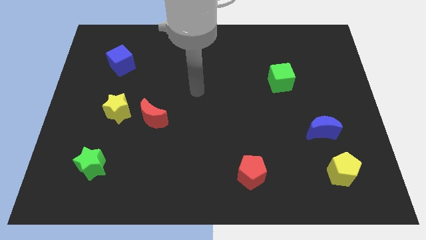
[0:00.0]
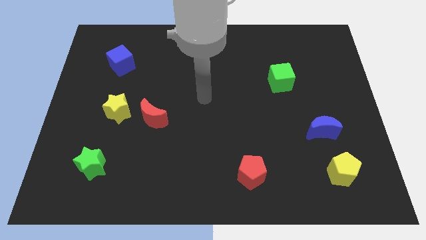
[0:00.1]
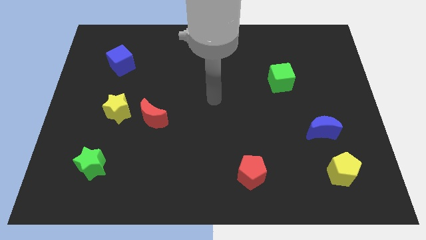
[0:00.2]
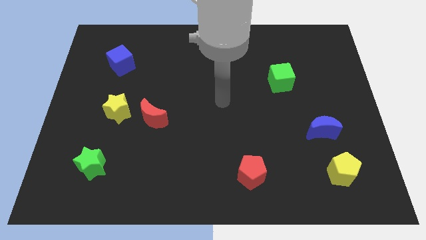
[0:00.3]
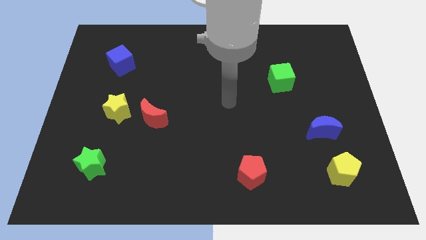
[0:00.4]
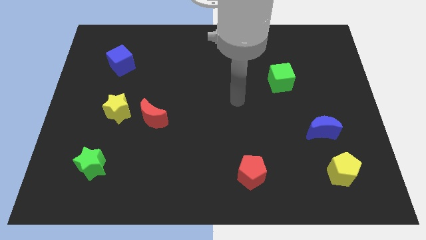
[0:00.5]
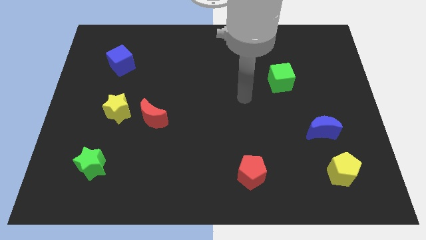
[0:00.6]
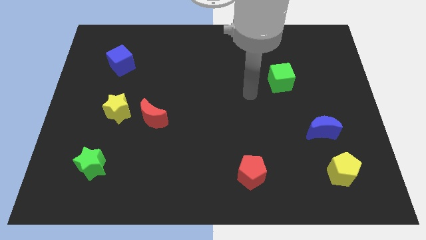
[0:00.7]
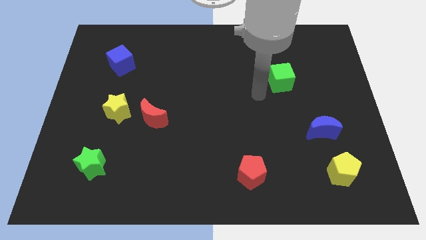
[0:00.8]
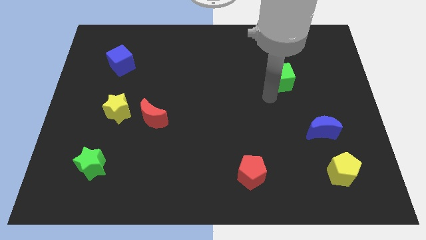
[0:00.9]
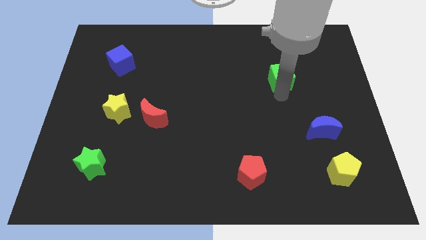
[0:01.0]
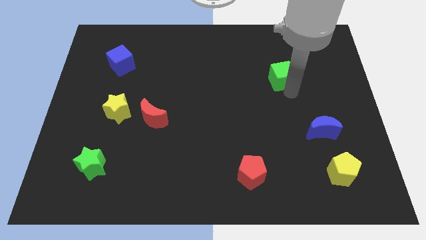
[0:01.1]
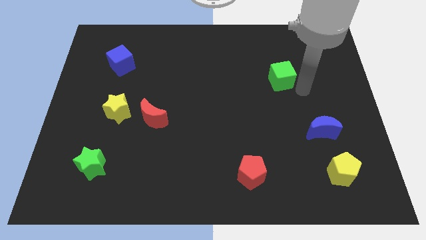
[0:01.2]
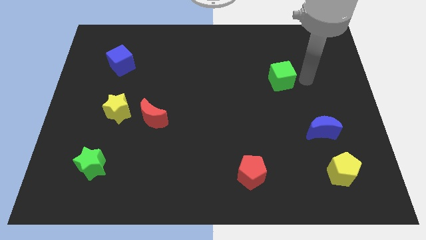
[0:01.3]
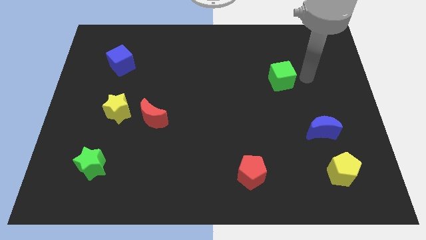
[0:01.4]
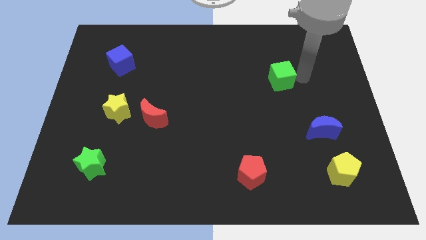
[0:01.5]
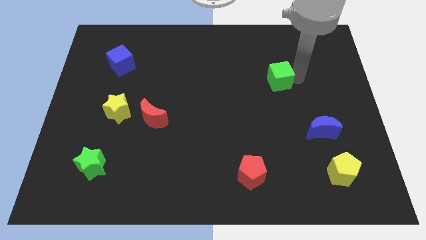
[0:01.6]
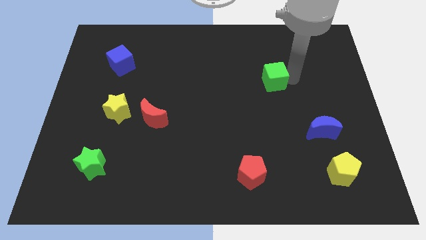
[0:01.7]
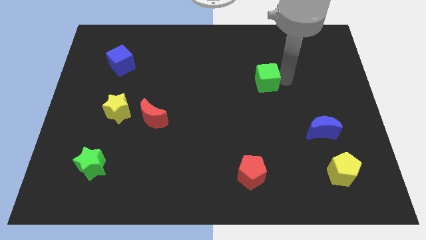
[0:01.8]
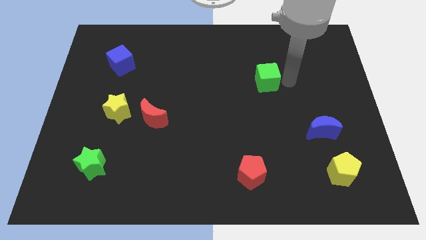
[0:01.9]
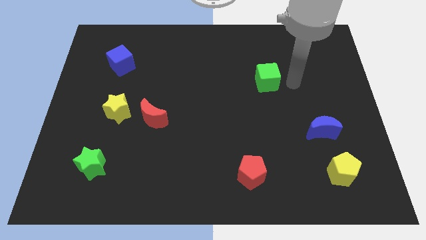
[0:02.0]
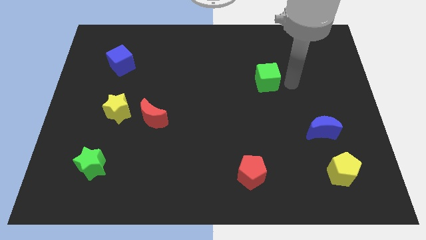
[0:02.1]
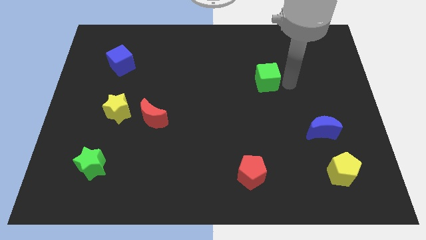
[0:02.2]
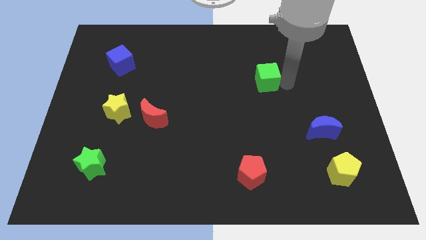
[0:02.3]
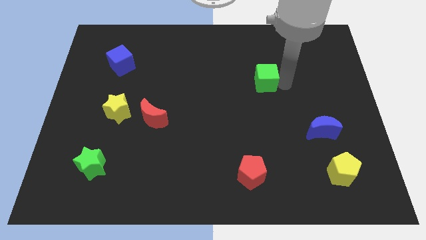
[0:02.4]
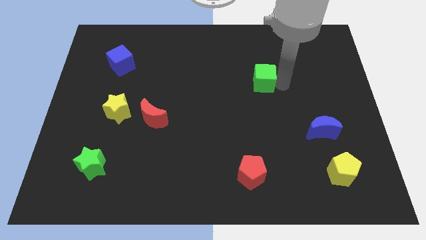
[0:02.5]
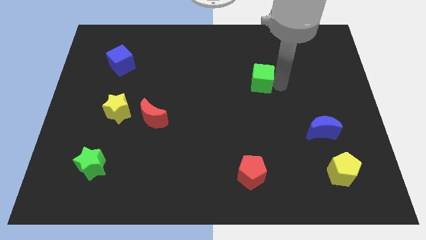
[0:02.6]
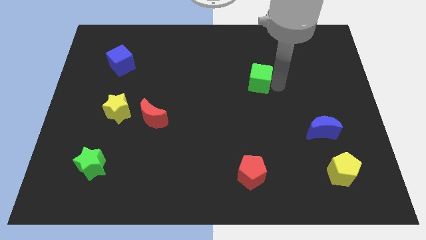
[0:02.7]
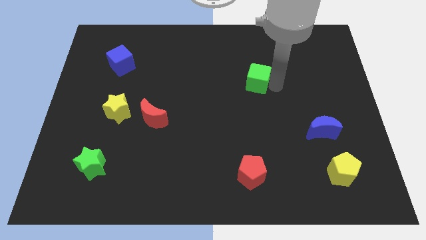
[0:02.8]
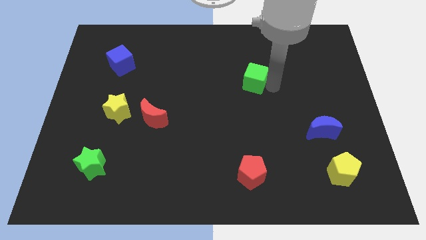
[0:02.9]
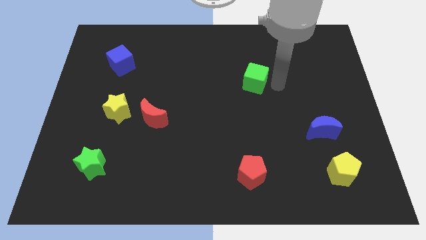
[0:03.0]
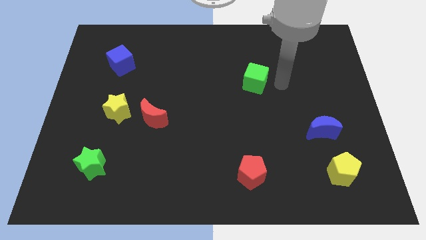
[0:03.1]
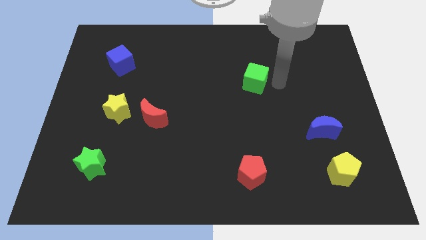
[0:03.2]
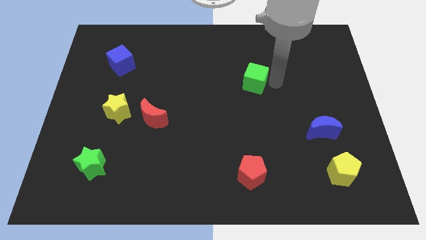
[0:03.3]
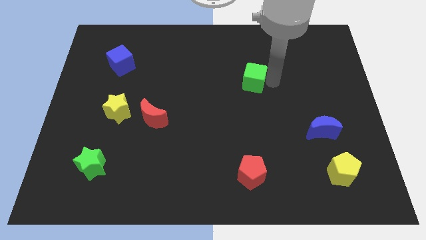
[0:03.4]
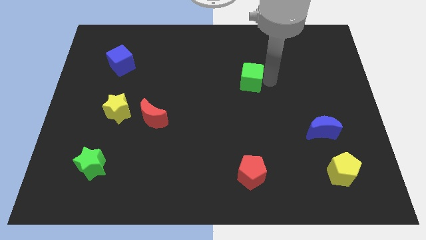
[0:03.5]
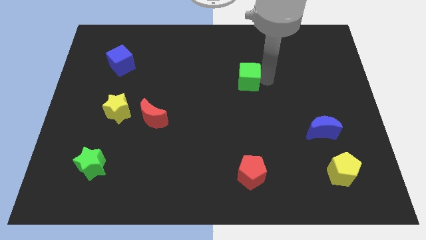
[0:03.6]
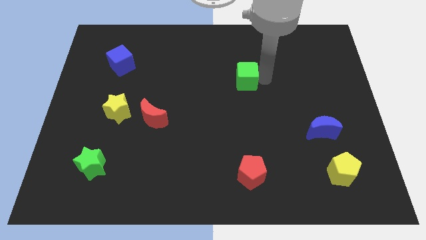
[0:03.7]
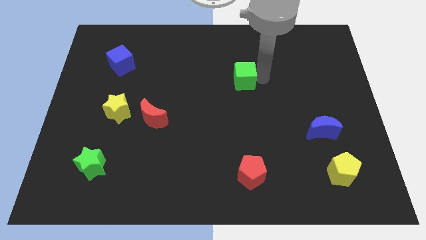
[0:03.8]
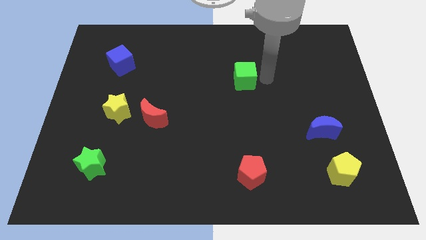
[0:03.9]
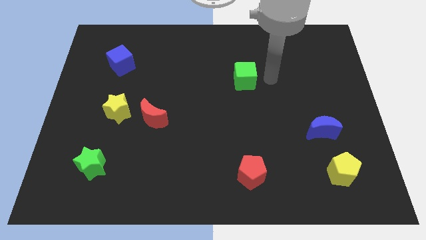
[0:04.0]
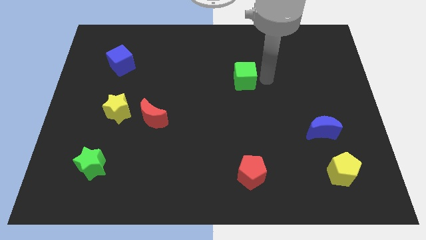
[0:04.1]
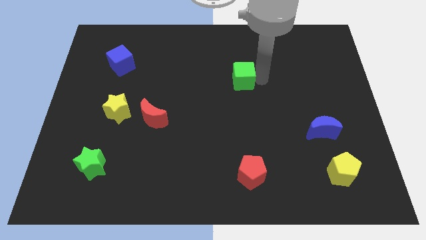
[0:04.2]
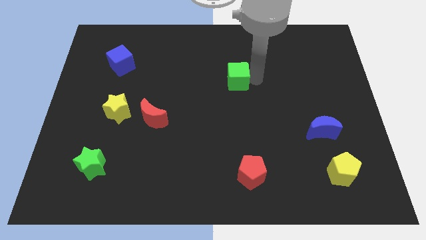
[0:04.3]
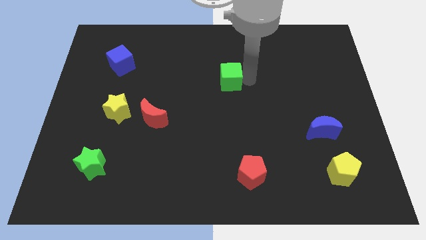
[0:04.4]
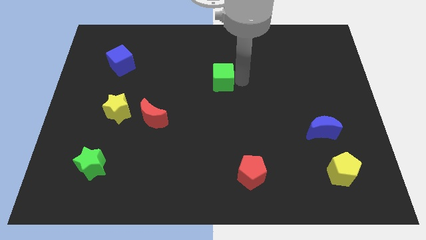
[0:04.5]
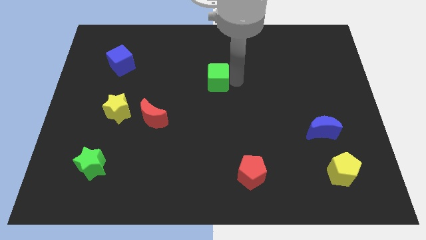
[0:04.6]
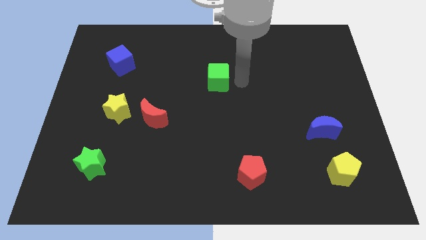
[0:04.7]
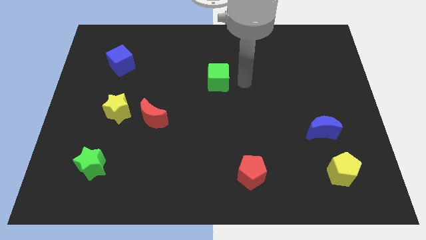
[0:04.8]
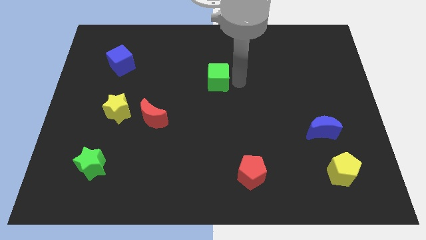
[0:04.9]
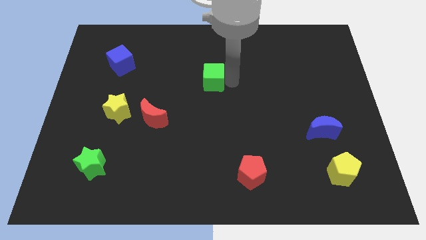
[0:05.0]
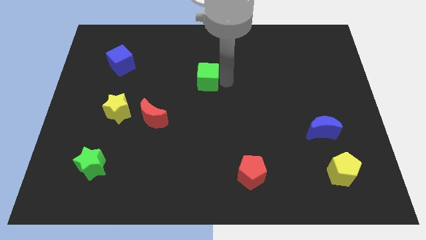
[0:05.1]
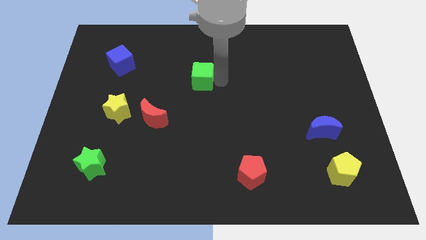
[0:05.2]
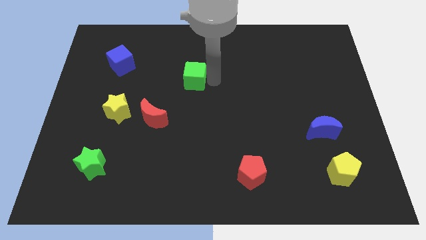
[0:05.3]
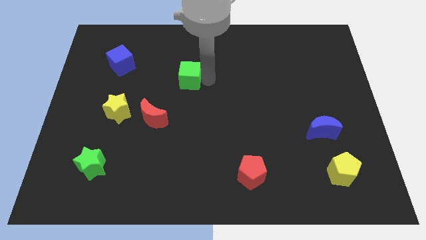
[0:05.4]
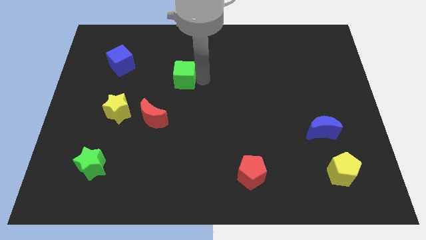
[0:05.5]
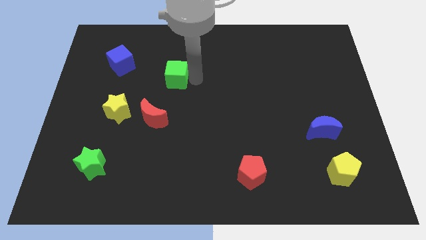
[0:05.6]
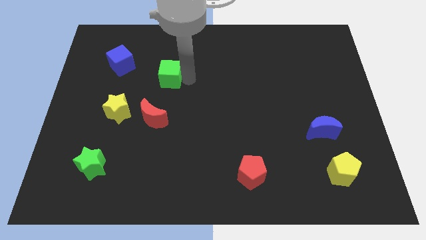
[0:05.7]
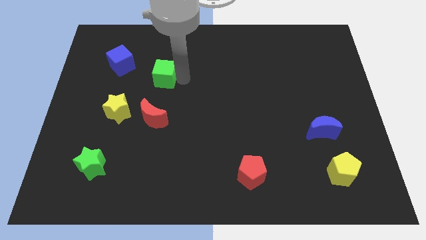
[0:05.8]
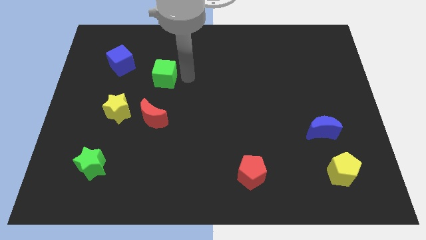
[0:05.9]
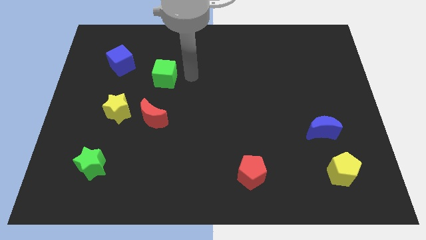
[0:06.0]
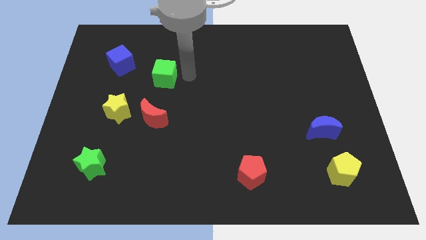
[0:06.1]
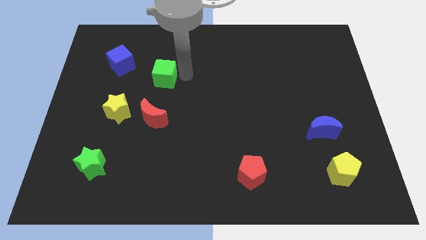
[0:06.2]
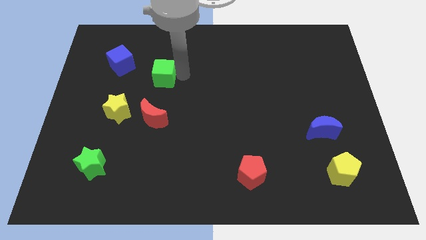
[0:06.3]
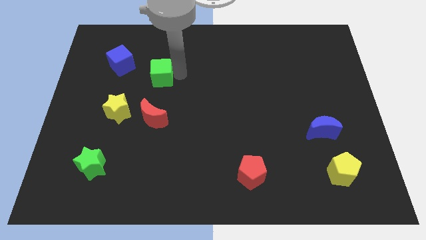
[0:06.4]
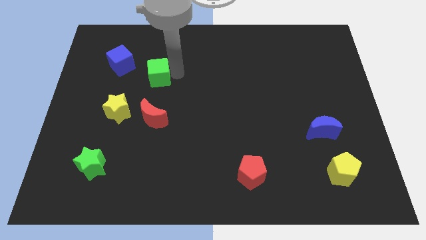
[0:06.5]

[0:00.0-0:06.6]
slide the green cube to the bottom right of the blue cube

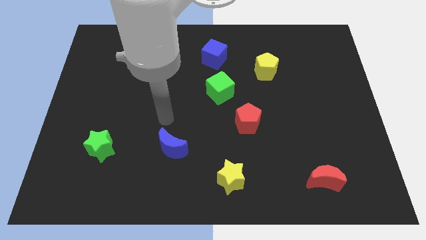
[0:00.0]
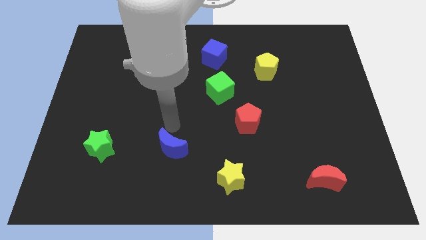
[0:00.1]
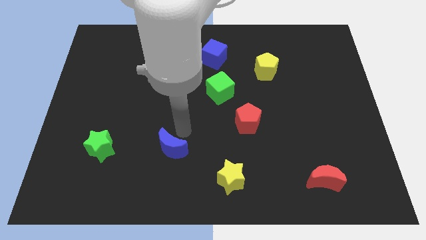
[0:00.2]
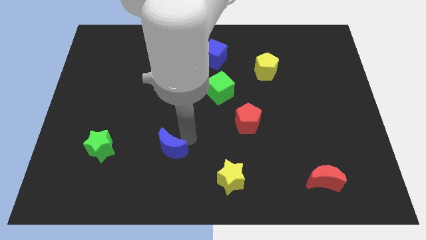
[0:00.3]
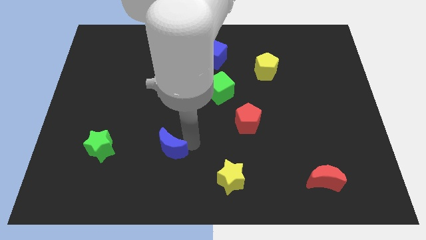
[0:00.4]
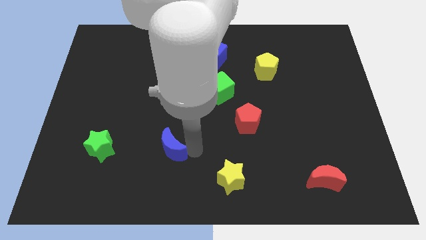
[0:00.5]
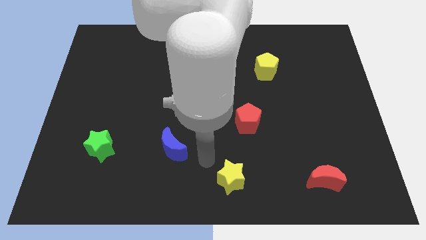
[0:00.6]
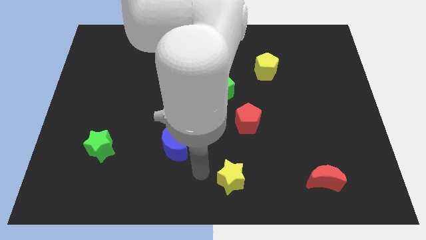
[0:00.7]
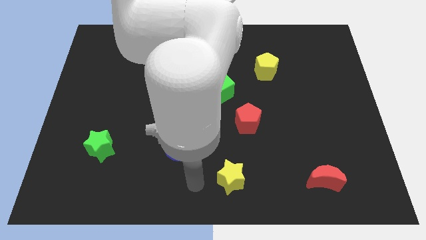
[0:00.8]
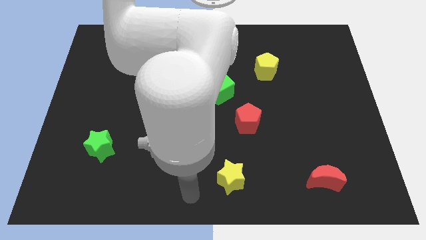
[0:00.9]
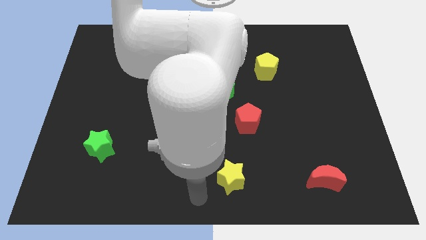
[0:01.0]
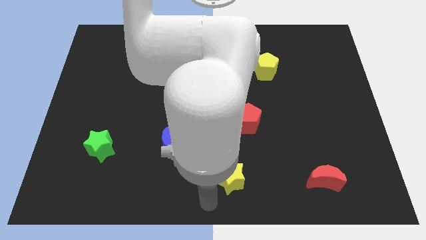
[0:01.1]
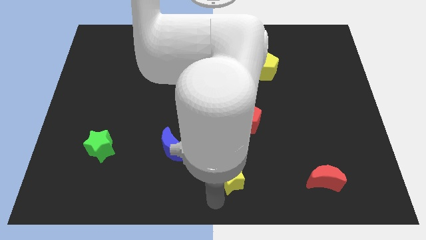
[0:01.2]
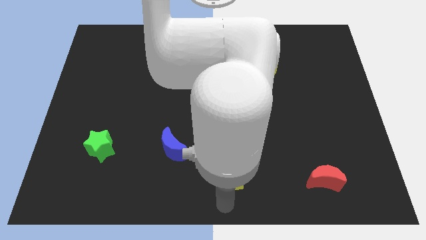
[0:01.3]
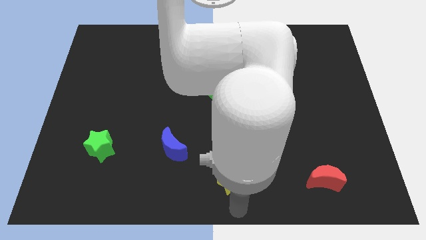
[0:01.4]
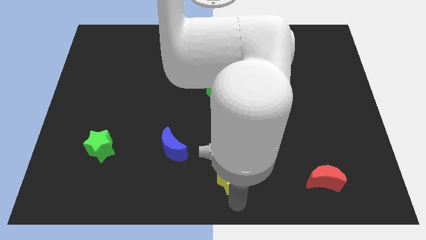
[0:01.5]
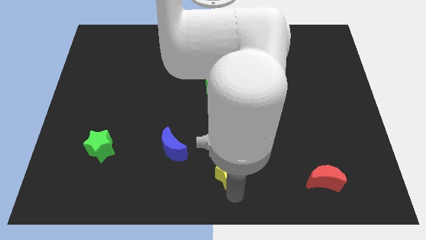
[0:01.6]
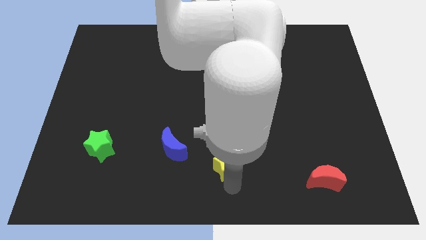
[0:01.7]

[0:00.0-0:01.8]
push the yellow star to the right side of the blue moon
